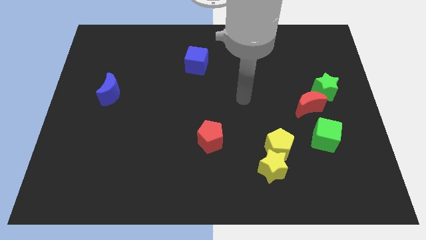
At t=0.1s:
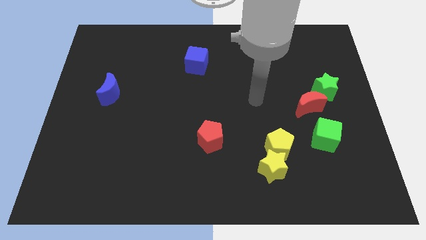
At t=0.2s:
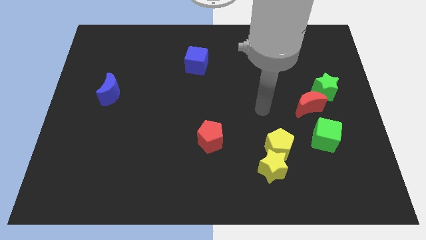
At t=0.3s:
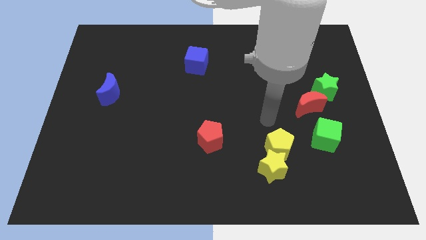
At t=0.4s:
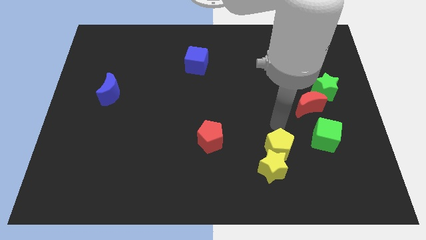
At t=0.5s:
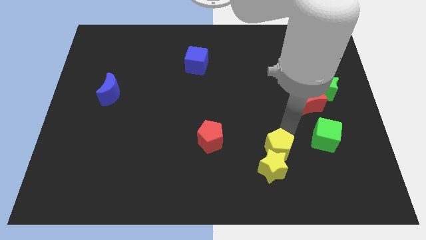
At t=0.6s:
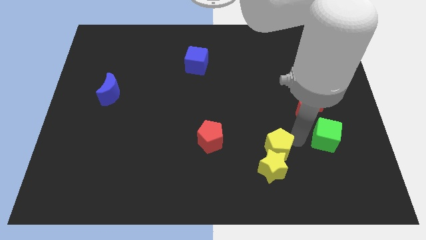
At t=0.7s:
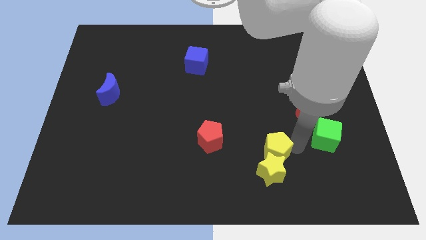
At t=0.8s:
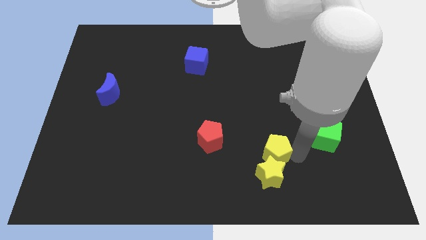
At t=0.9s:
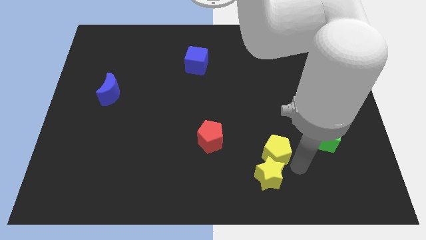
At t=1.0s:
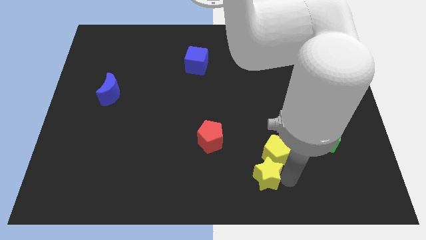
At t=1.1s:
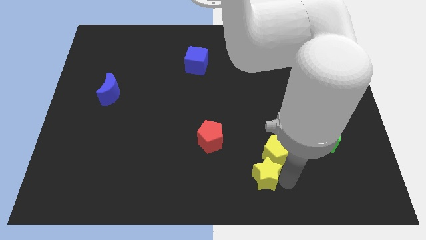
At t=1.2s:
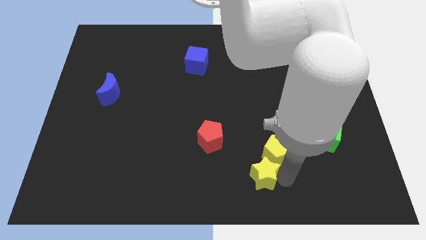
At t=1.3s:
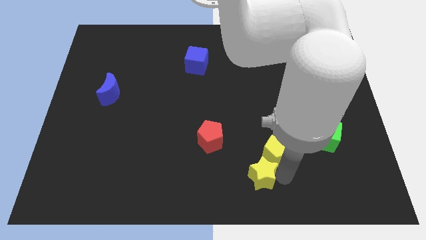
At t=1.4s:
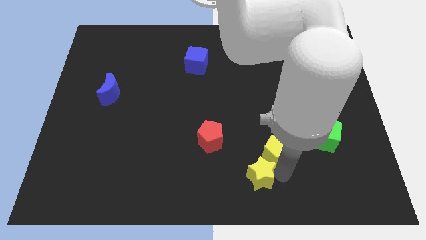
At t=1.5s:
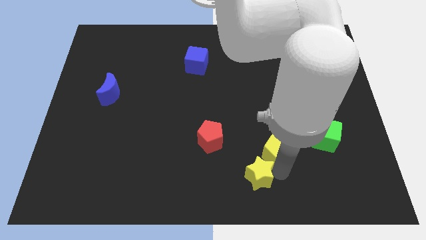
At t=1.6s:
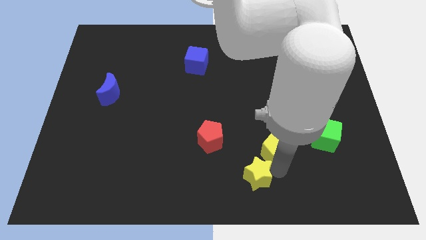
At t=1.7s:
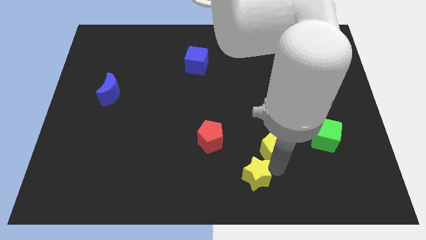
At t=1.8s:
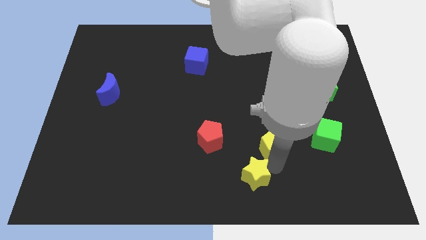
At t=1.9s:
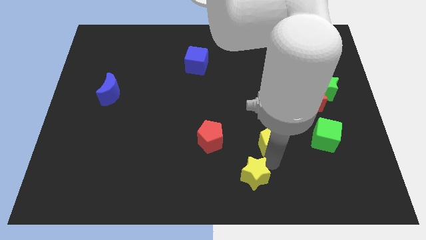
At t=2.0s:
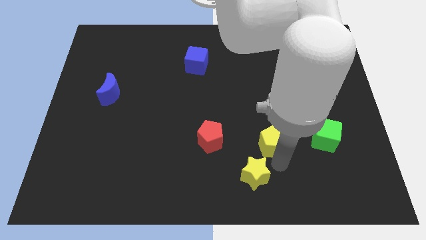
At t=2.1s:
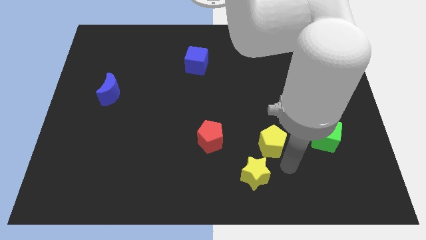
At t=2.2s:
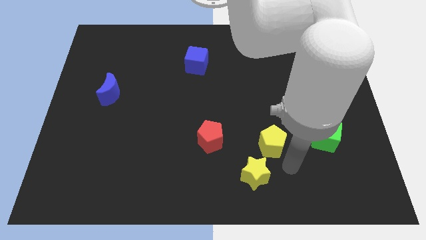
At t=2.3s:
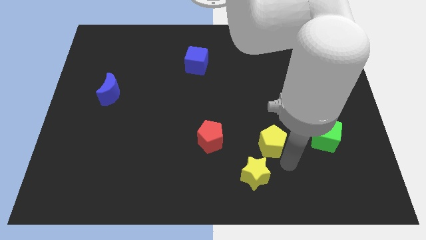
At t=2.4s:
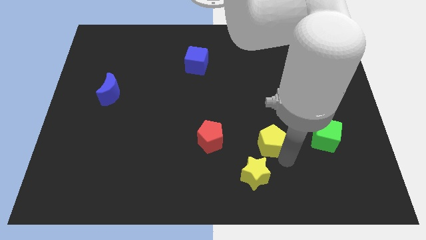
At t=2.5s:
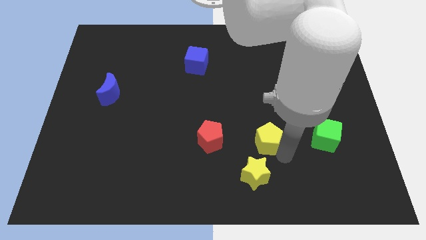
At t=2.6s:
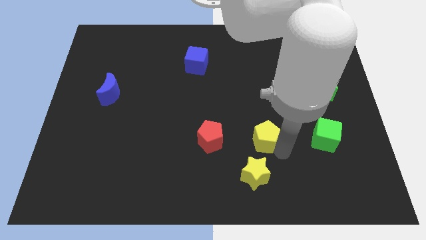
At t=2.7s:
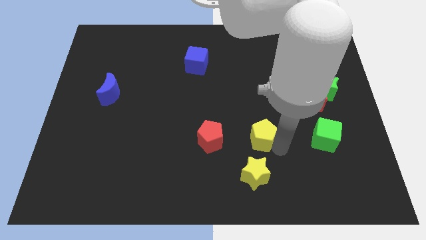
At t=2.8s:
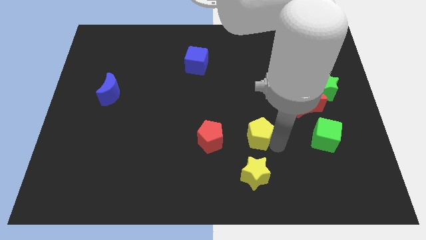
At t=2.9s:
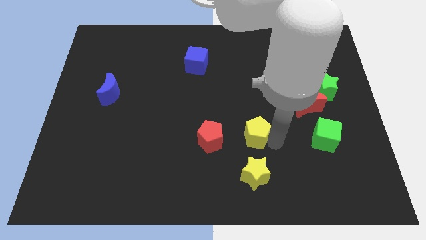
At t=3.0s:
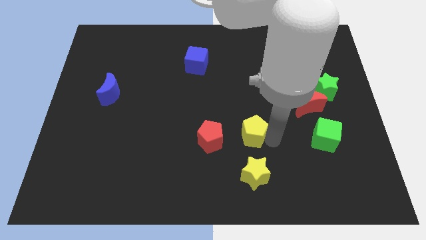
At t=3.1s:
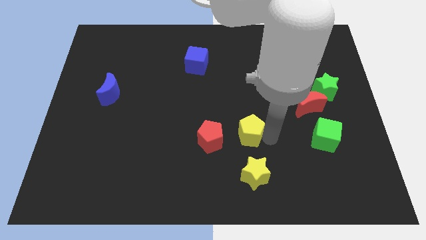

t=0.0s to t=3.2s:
push the yellow pentagon upwards and then to the left a little bit

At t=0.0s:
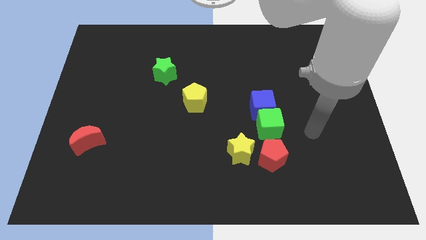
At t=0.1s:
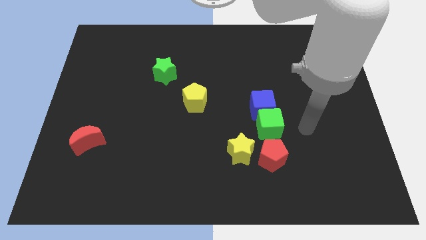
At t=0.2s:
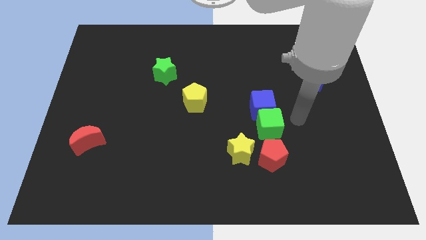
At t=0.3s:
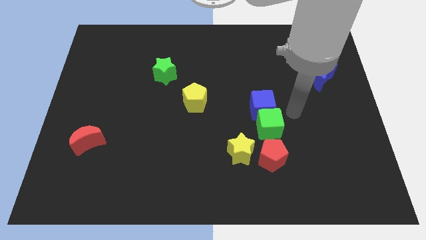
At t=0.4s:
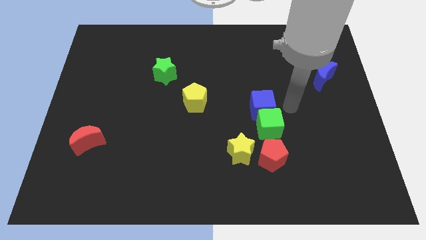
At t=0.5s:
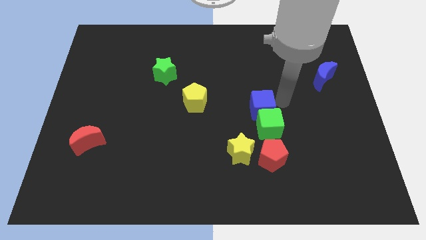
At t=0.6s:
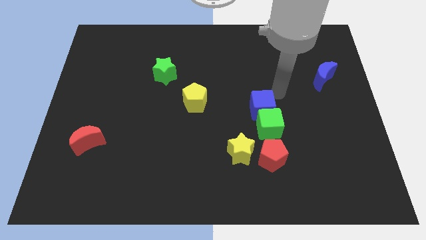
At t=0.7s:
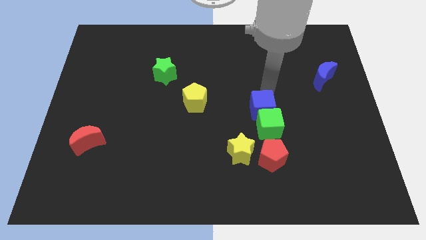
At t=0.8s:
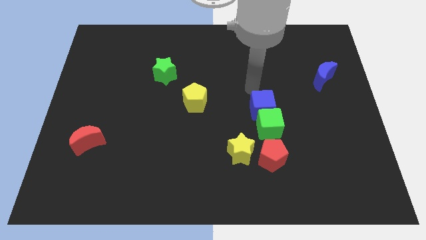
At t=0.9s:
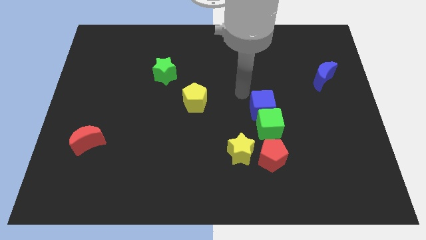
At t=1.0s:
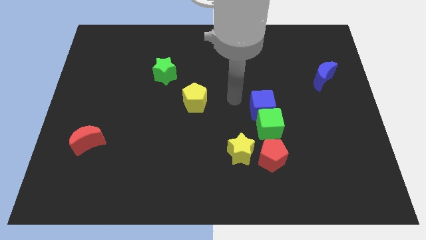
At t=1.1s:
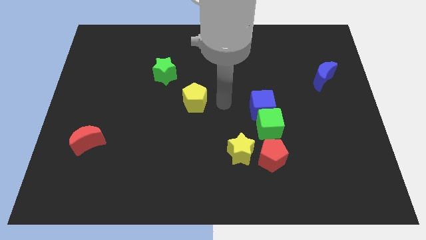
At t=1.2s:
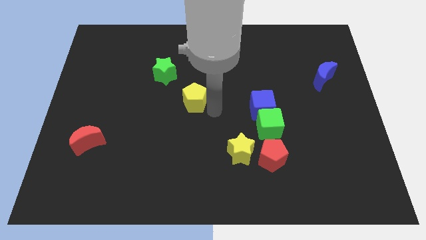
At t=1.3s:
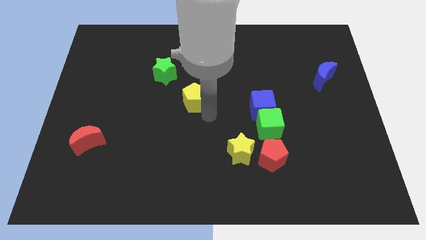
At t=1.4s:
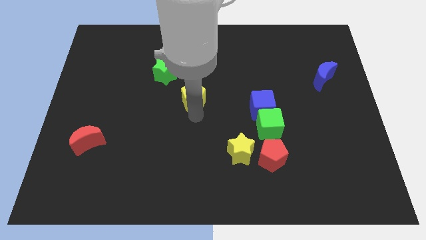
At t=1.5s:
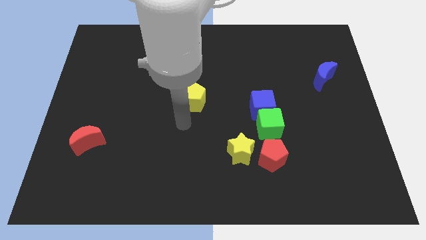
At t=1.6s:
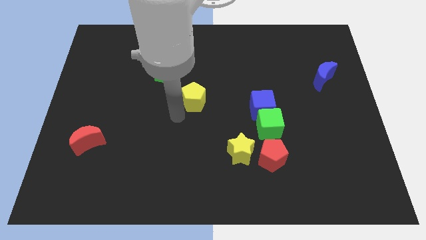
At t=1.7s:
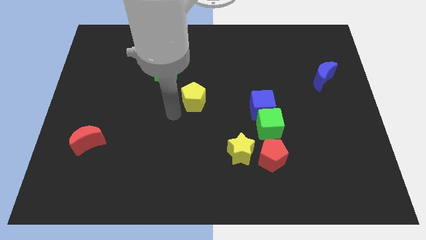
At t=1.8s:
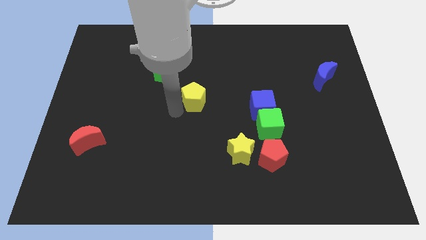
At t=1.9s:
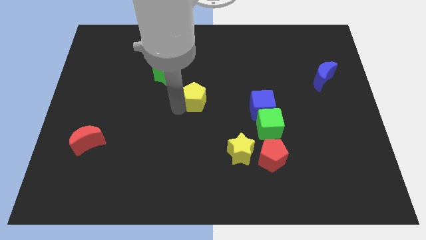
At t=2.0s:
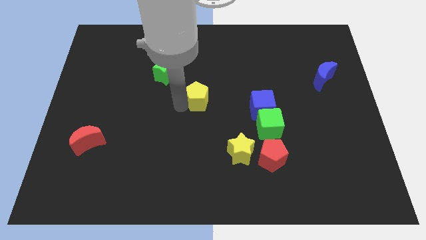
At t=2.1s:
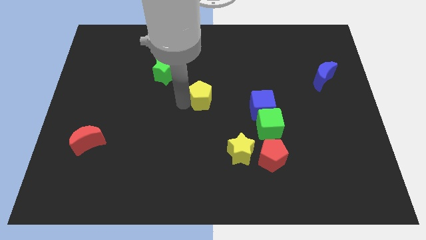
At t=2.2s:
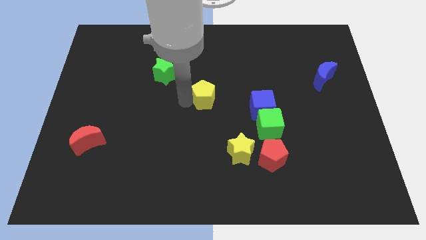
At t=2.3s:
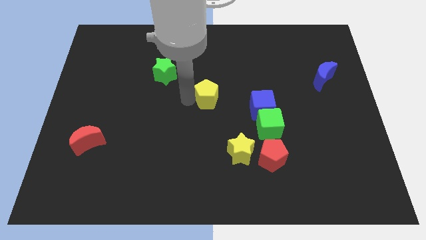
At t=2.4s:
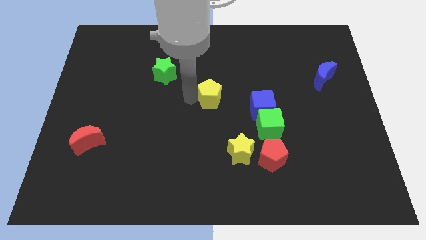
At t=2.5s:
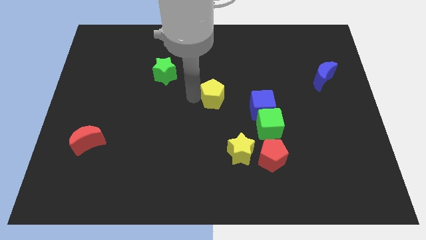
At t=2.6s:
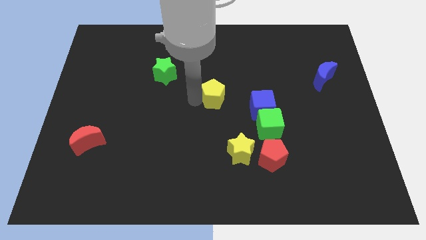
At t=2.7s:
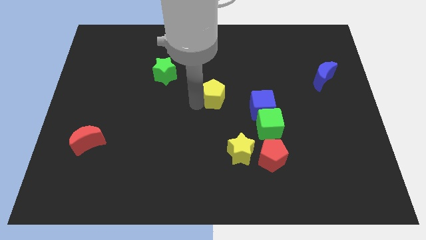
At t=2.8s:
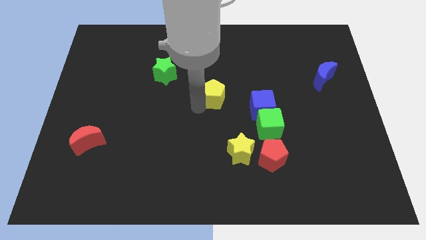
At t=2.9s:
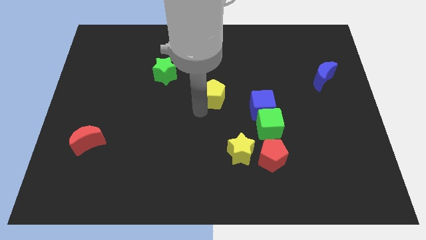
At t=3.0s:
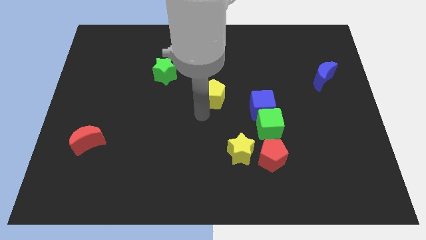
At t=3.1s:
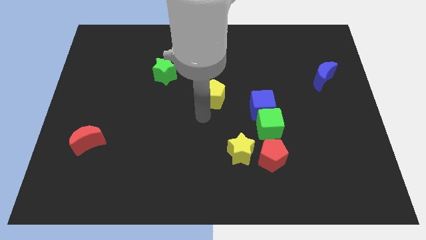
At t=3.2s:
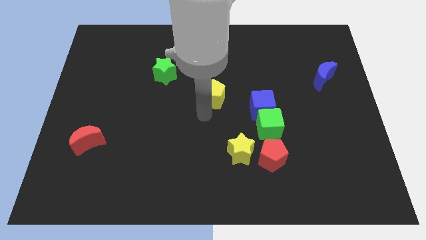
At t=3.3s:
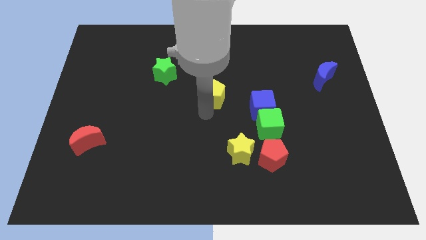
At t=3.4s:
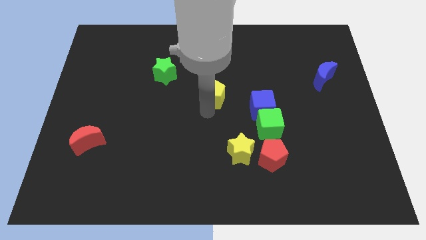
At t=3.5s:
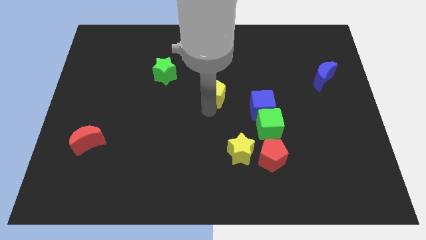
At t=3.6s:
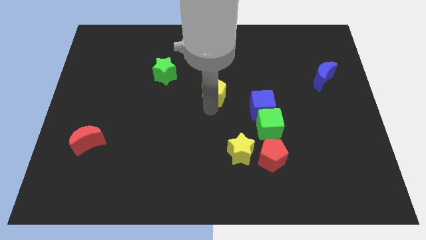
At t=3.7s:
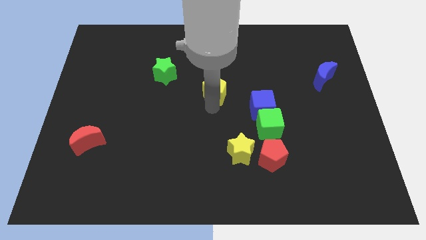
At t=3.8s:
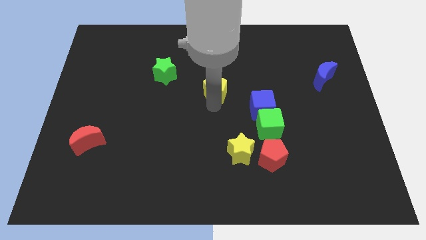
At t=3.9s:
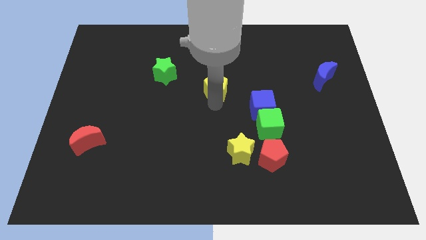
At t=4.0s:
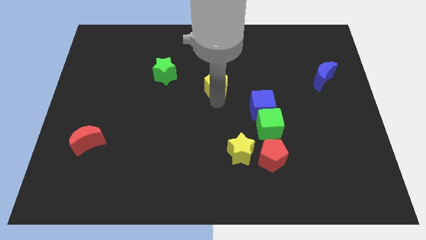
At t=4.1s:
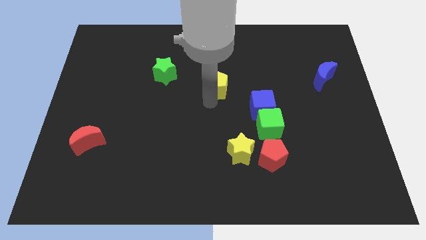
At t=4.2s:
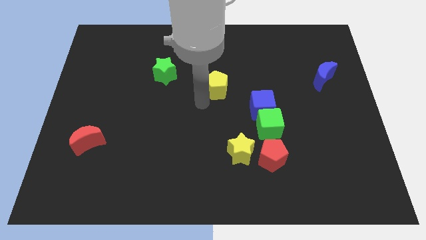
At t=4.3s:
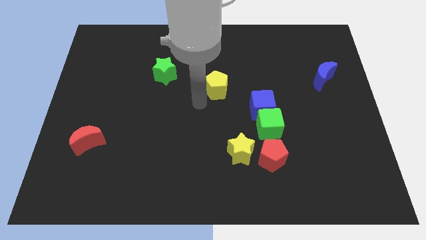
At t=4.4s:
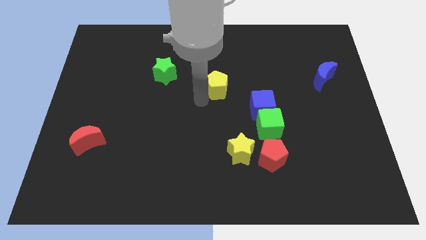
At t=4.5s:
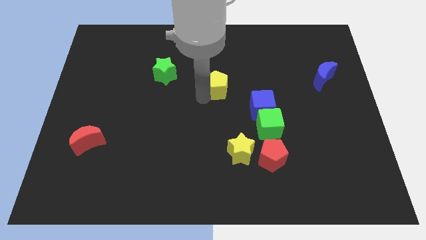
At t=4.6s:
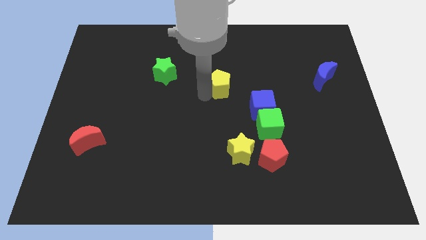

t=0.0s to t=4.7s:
move the yellow pentagon up and right a little
